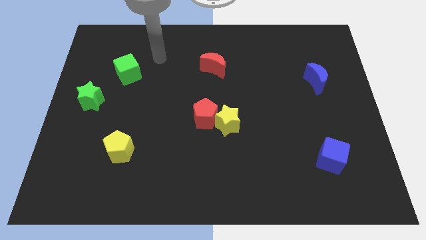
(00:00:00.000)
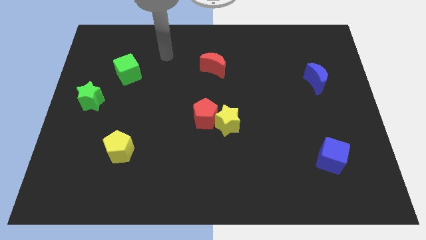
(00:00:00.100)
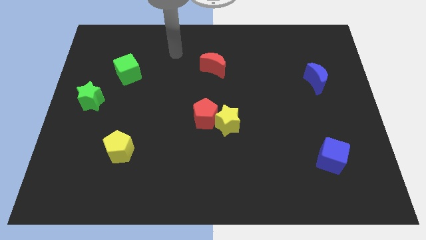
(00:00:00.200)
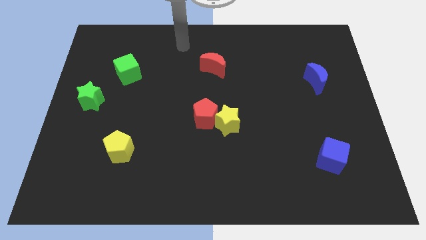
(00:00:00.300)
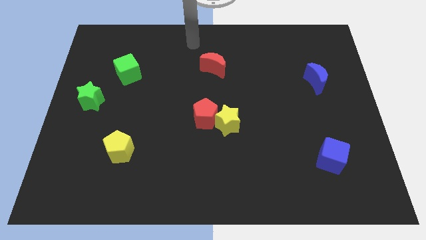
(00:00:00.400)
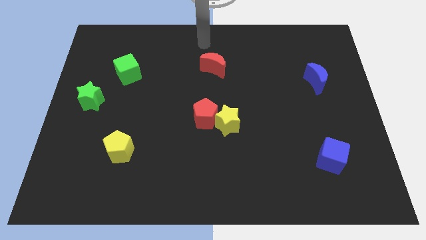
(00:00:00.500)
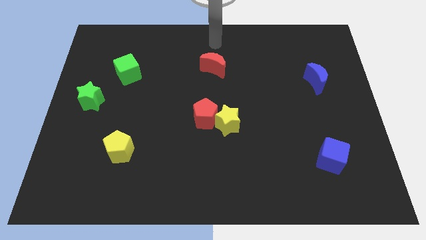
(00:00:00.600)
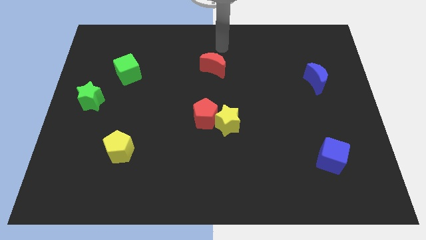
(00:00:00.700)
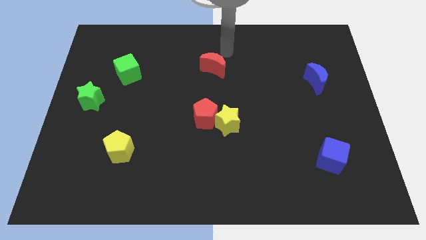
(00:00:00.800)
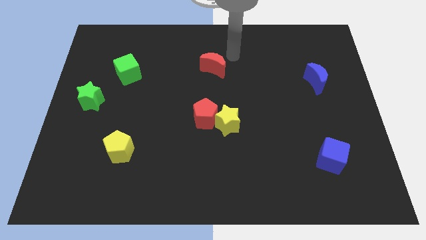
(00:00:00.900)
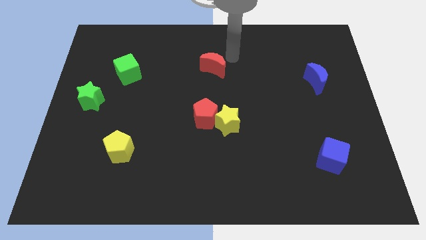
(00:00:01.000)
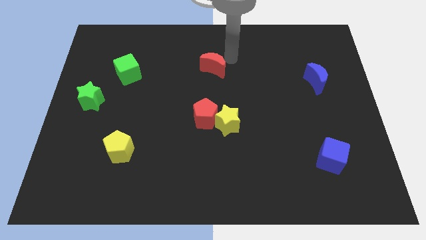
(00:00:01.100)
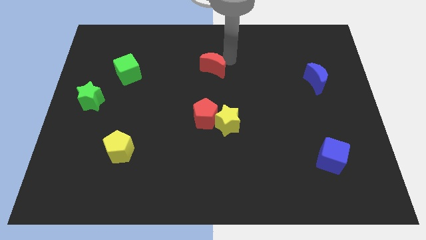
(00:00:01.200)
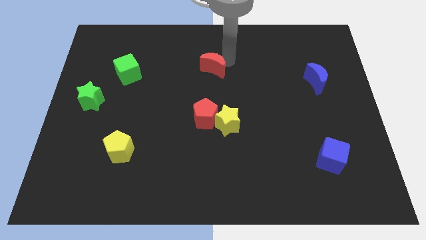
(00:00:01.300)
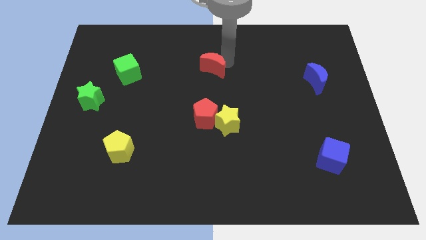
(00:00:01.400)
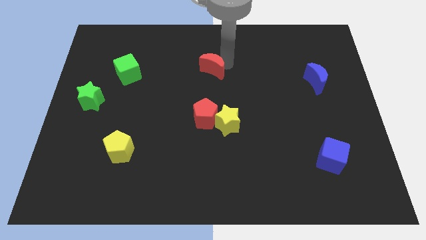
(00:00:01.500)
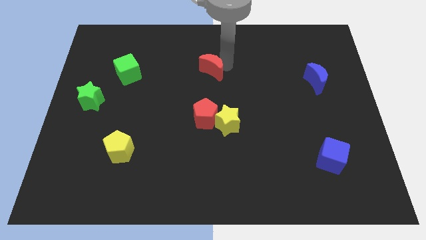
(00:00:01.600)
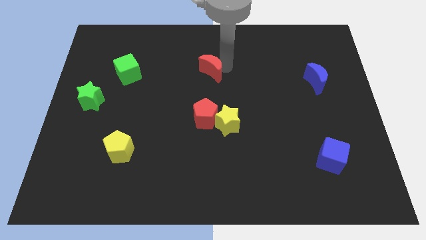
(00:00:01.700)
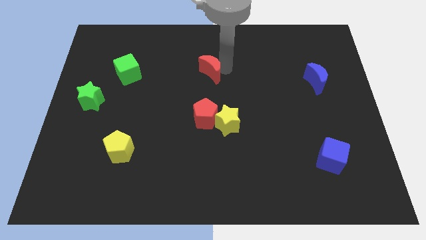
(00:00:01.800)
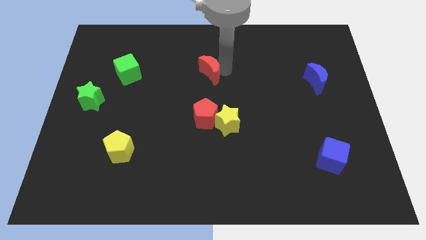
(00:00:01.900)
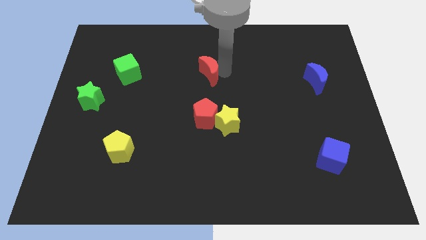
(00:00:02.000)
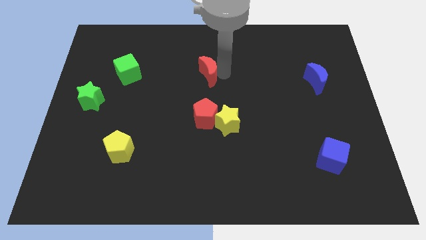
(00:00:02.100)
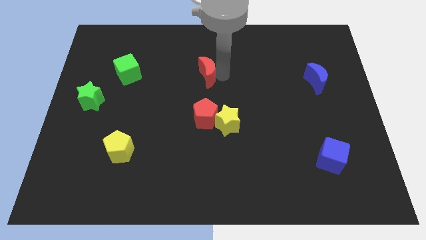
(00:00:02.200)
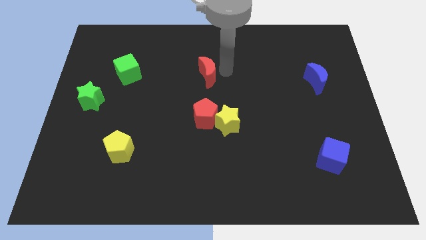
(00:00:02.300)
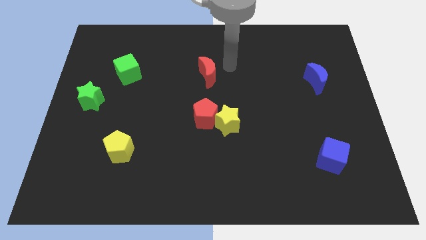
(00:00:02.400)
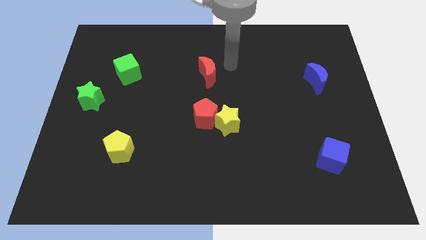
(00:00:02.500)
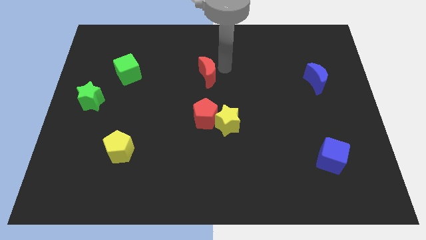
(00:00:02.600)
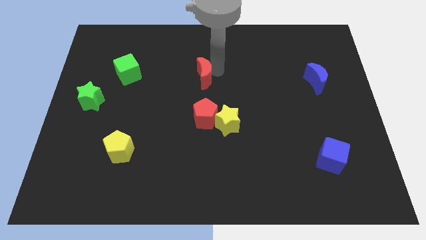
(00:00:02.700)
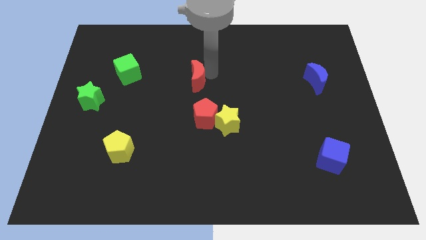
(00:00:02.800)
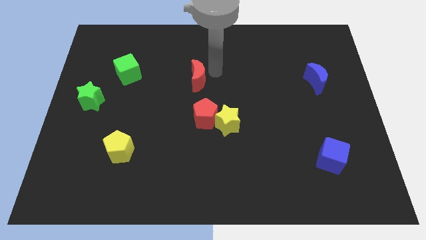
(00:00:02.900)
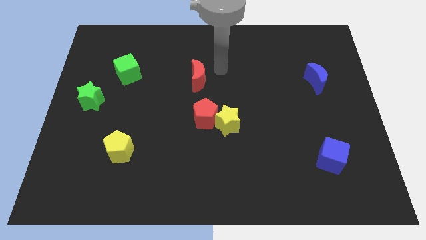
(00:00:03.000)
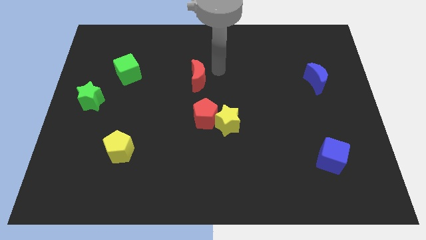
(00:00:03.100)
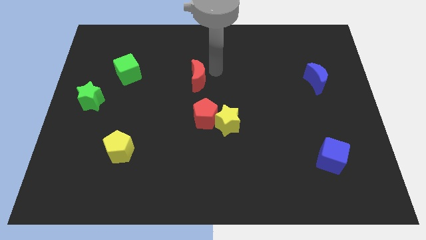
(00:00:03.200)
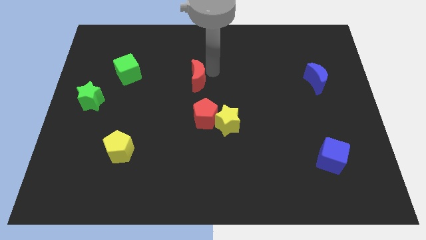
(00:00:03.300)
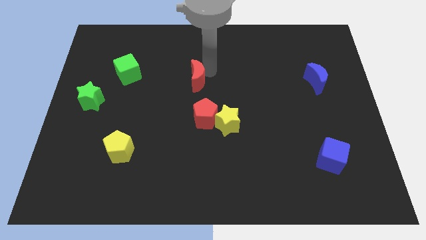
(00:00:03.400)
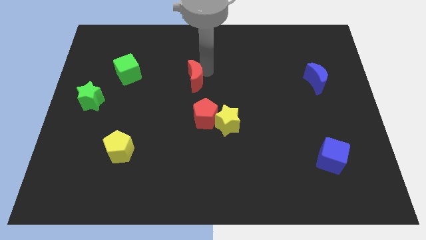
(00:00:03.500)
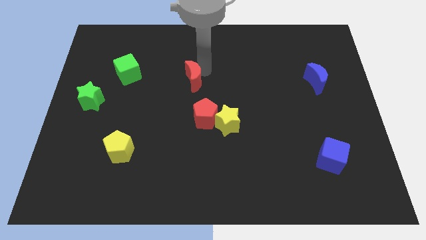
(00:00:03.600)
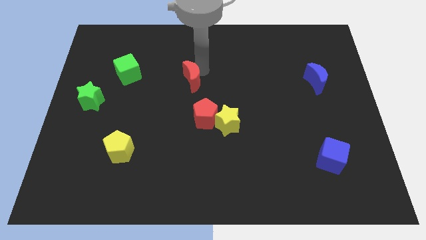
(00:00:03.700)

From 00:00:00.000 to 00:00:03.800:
move the red moon down and then to the left a little

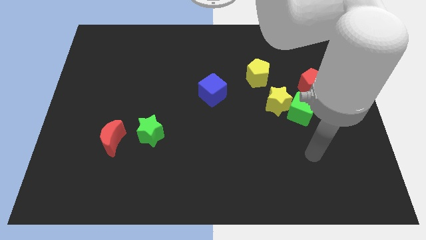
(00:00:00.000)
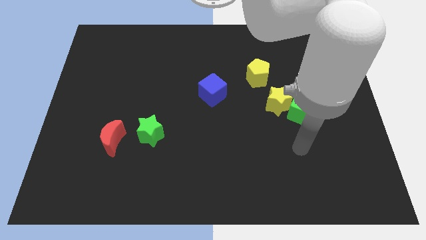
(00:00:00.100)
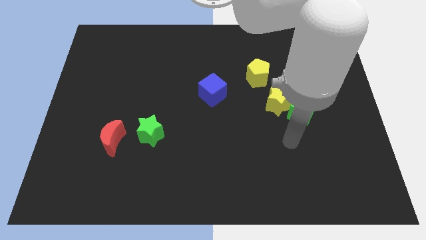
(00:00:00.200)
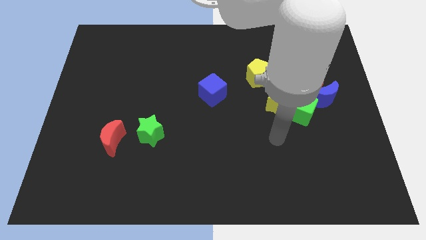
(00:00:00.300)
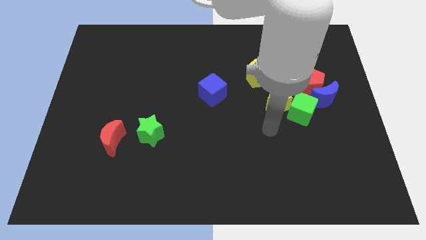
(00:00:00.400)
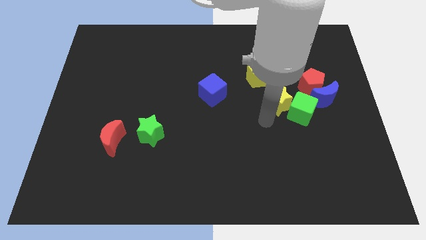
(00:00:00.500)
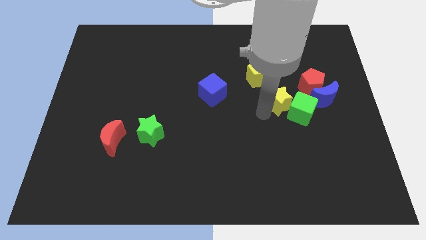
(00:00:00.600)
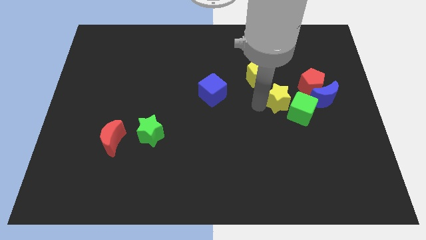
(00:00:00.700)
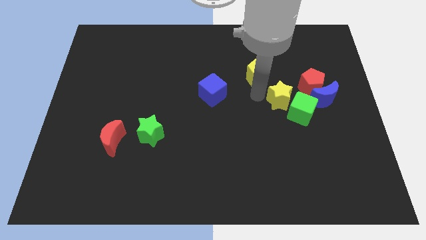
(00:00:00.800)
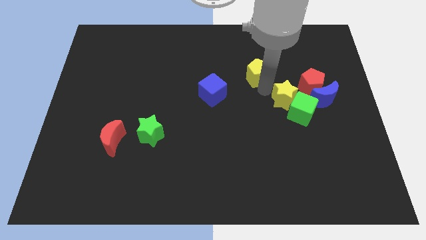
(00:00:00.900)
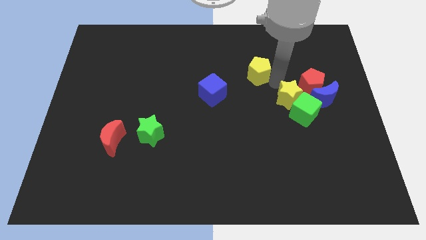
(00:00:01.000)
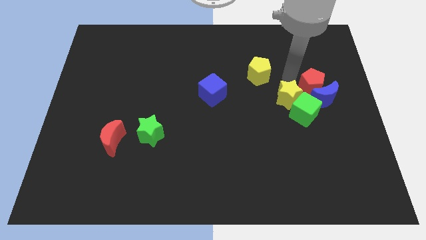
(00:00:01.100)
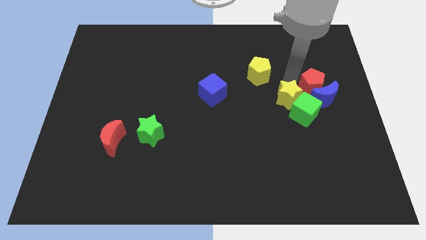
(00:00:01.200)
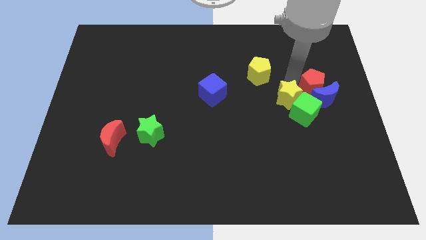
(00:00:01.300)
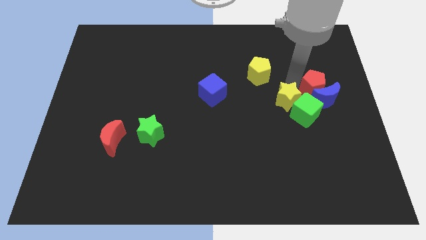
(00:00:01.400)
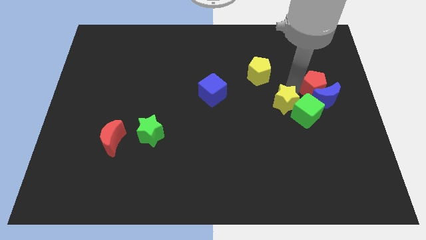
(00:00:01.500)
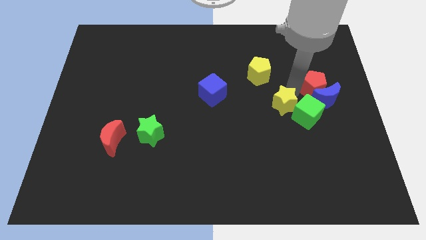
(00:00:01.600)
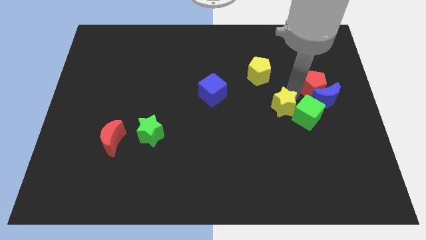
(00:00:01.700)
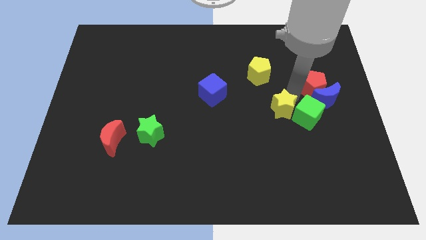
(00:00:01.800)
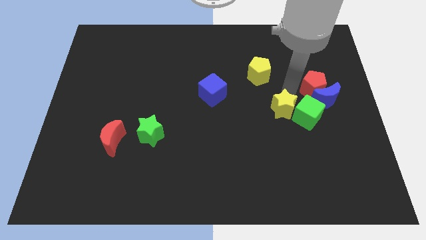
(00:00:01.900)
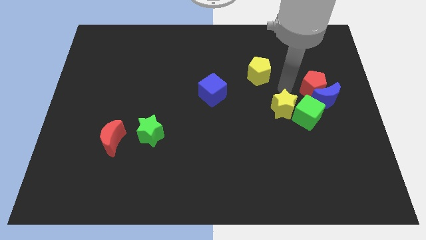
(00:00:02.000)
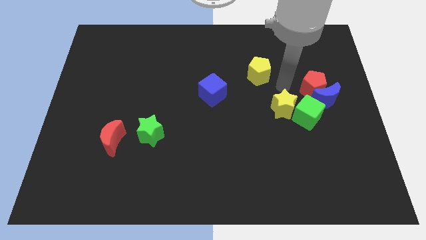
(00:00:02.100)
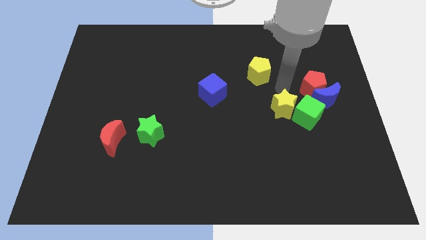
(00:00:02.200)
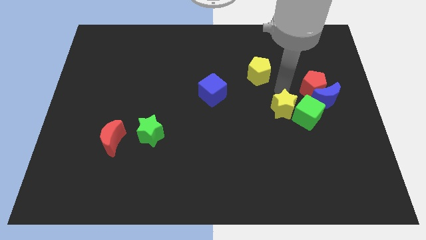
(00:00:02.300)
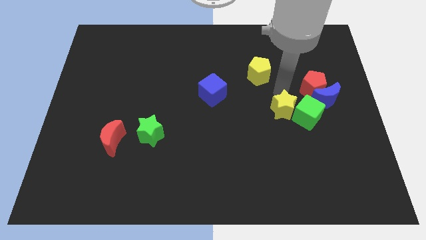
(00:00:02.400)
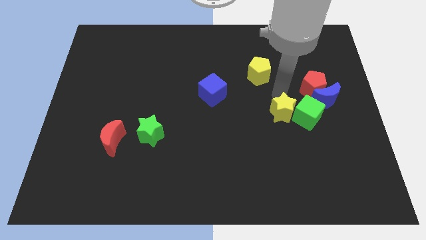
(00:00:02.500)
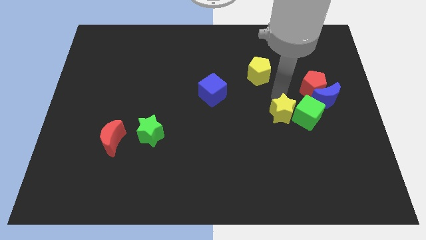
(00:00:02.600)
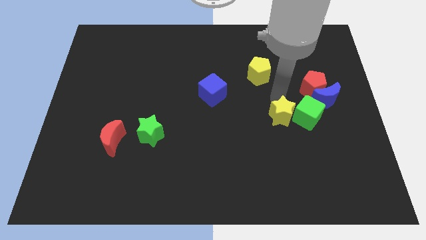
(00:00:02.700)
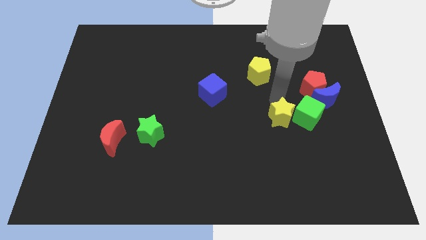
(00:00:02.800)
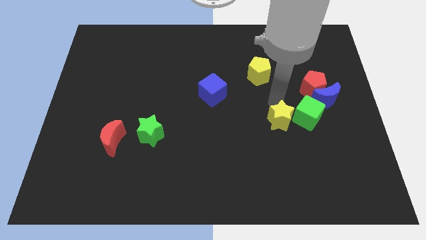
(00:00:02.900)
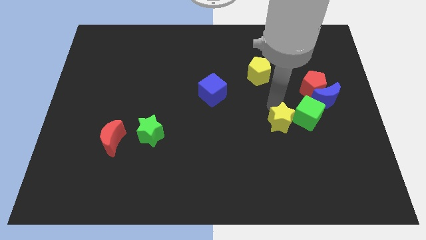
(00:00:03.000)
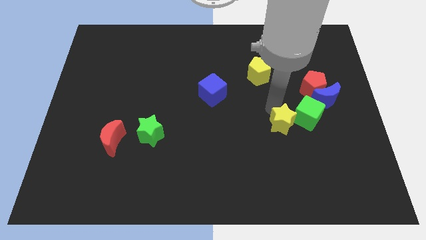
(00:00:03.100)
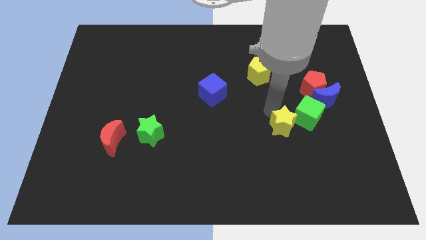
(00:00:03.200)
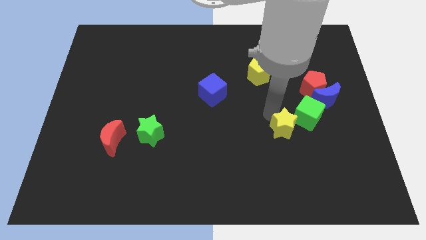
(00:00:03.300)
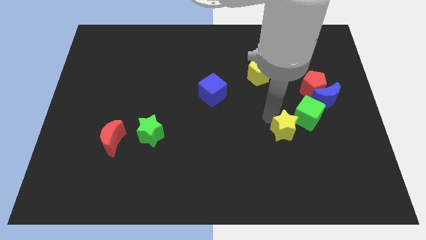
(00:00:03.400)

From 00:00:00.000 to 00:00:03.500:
slide the yellow star down somewhat

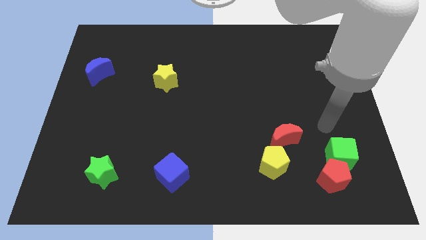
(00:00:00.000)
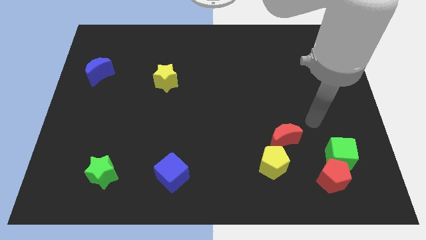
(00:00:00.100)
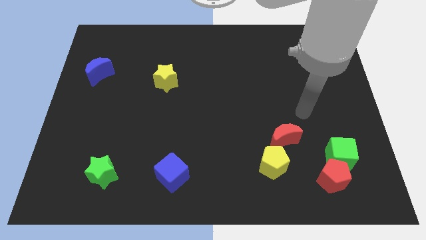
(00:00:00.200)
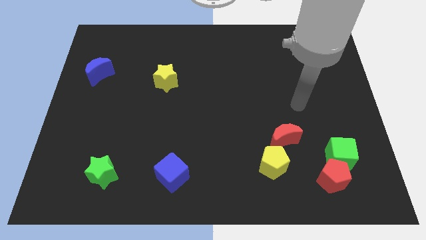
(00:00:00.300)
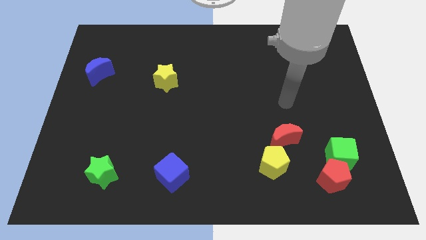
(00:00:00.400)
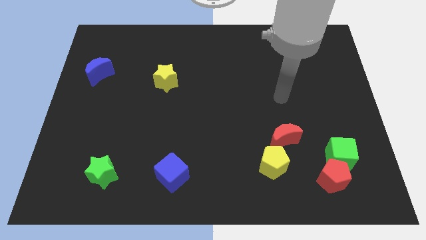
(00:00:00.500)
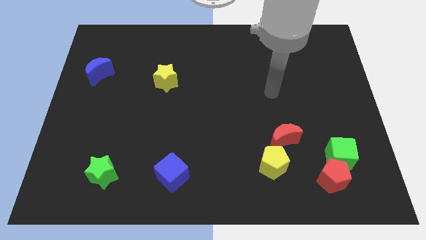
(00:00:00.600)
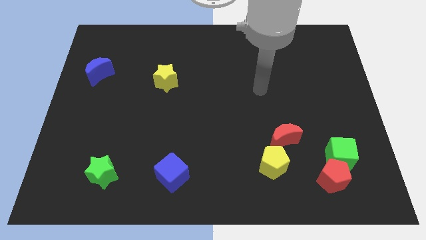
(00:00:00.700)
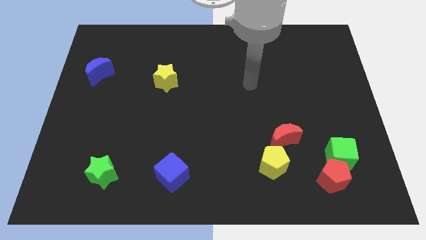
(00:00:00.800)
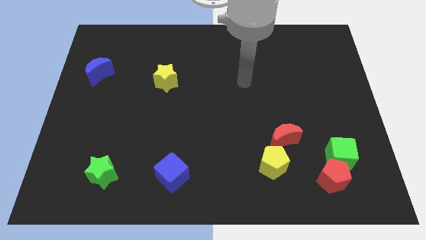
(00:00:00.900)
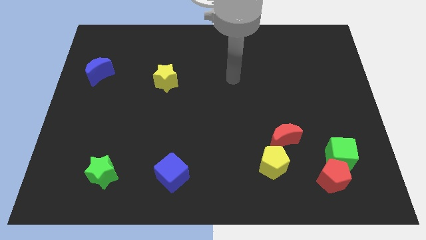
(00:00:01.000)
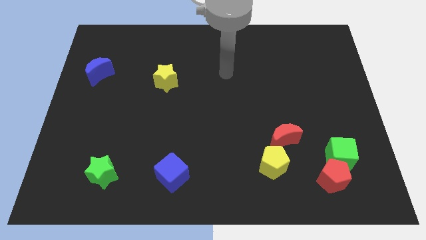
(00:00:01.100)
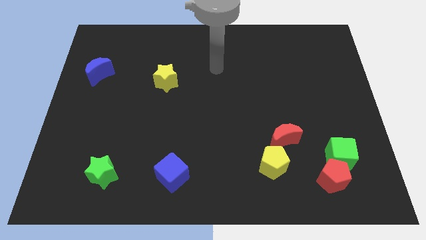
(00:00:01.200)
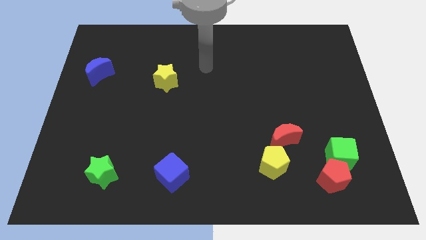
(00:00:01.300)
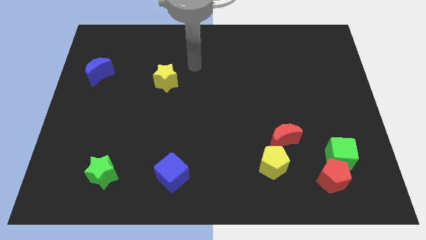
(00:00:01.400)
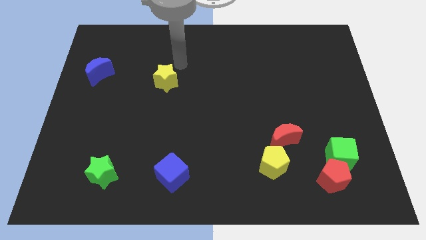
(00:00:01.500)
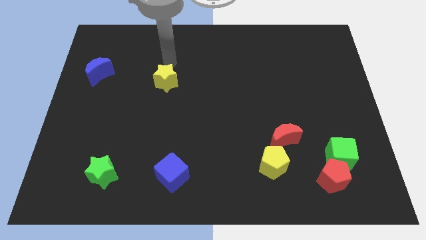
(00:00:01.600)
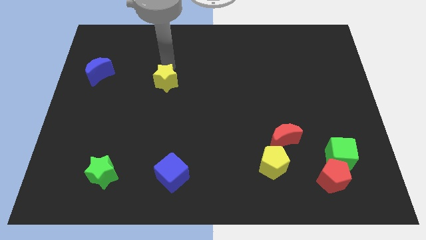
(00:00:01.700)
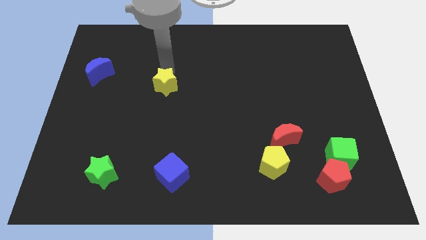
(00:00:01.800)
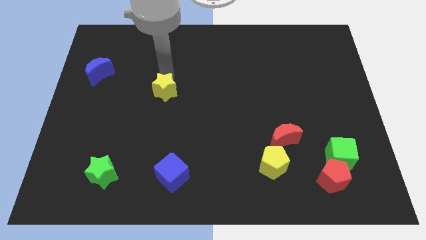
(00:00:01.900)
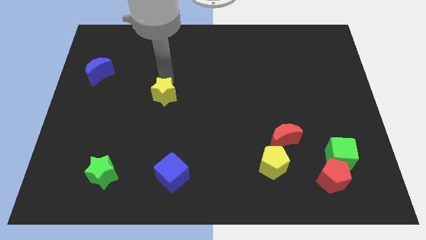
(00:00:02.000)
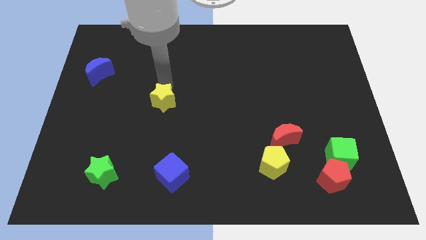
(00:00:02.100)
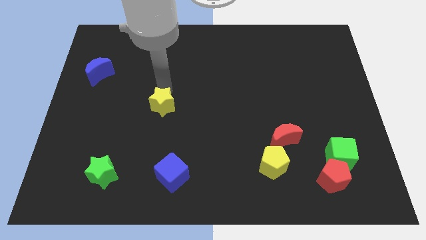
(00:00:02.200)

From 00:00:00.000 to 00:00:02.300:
move the yellow star a bit downwards
